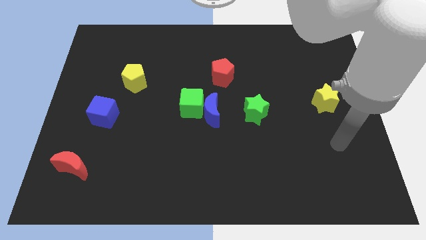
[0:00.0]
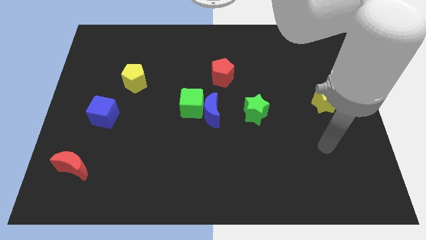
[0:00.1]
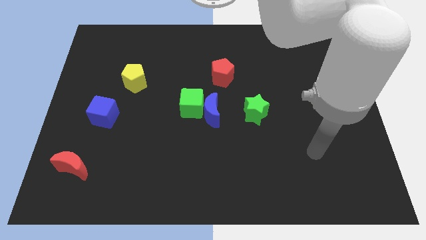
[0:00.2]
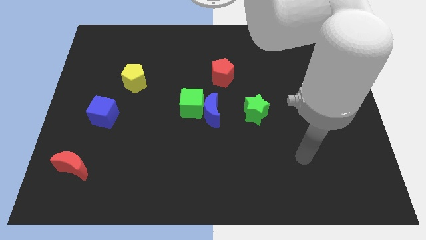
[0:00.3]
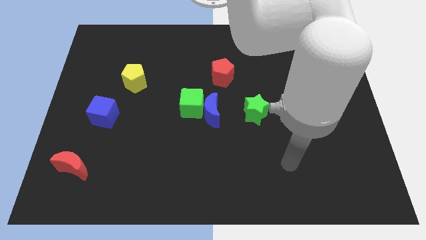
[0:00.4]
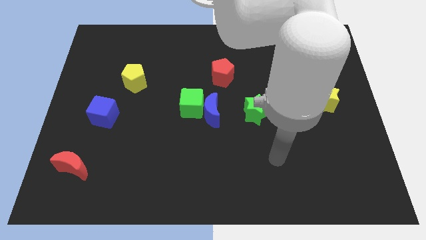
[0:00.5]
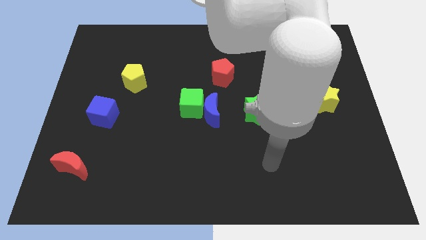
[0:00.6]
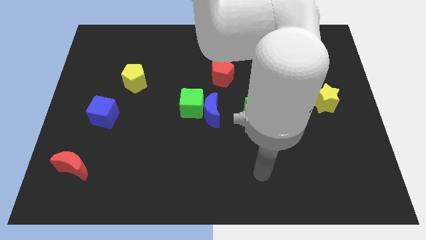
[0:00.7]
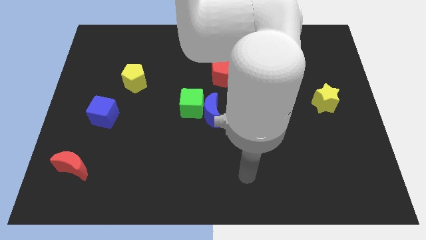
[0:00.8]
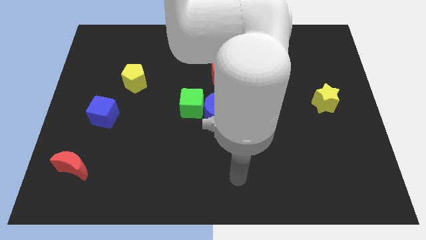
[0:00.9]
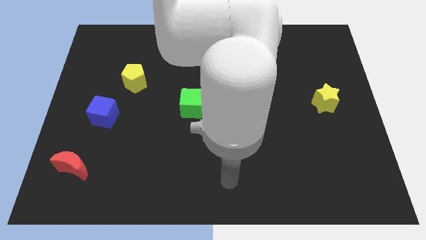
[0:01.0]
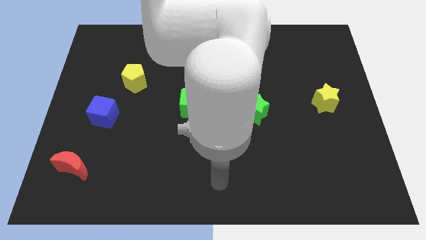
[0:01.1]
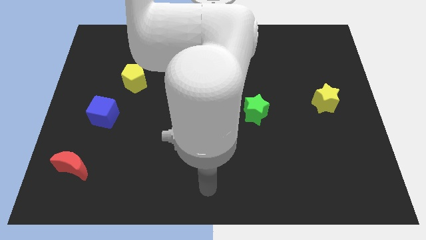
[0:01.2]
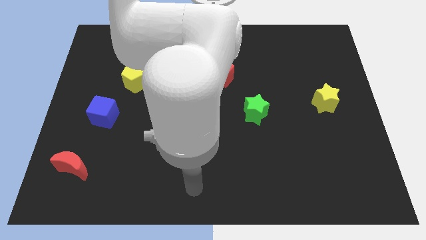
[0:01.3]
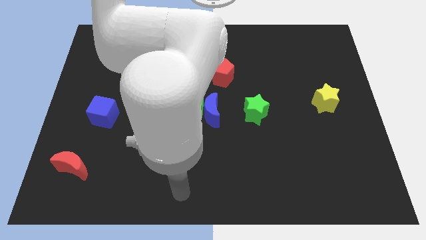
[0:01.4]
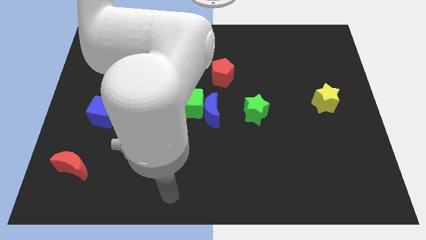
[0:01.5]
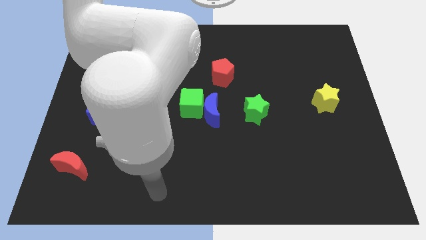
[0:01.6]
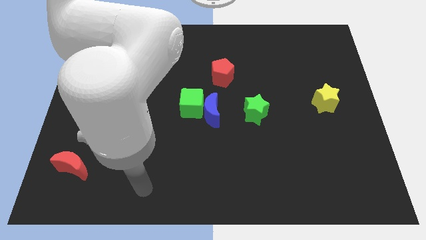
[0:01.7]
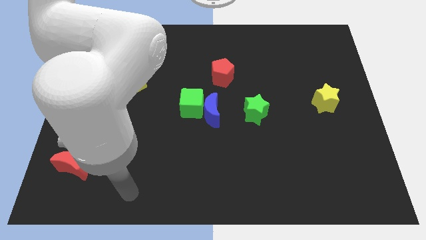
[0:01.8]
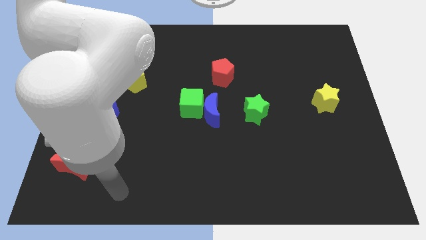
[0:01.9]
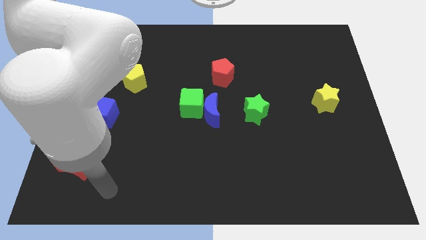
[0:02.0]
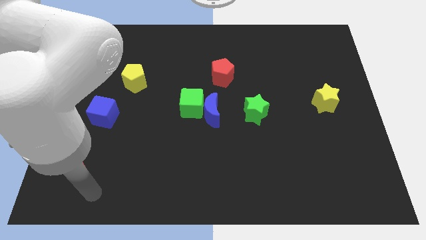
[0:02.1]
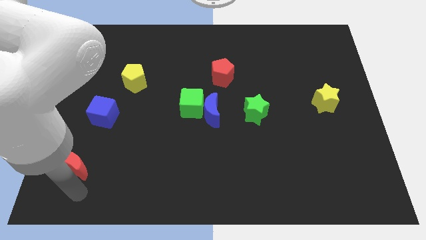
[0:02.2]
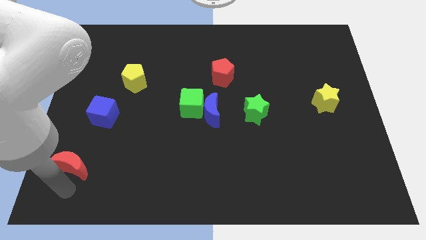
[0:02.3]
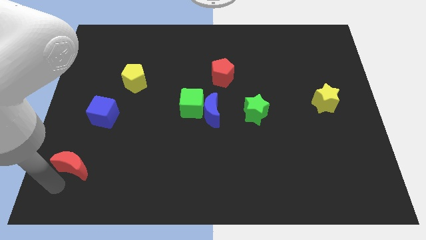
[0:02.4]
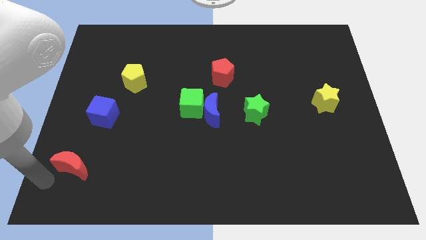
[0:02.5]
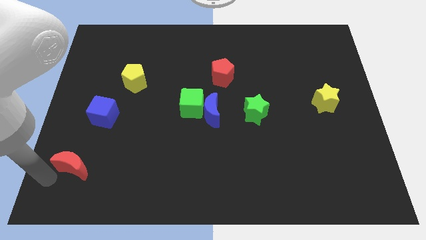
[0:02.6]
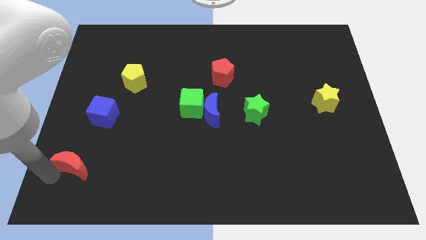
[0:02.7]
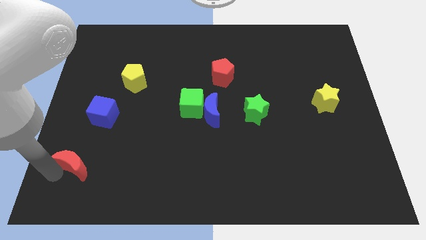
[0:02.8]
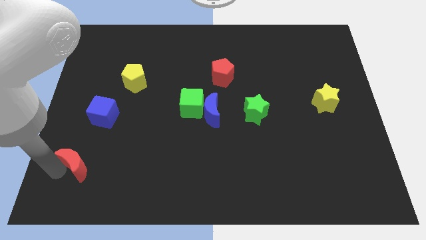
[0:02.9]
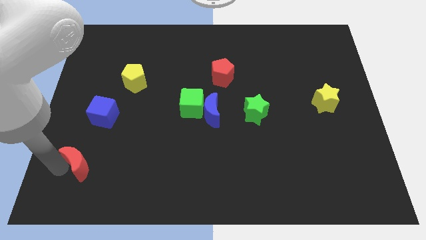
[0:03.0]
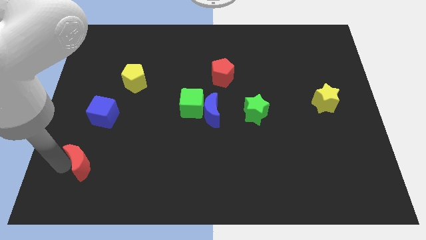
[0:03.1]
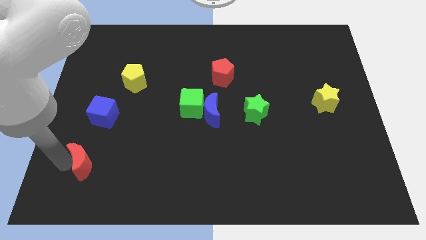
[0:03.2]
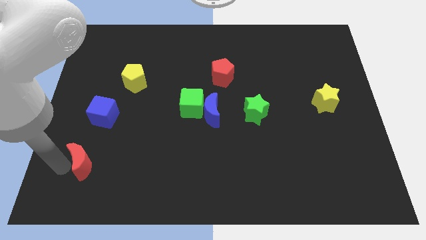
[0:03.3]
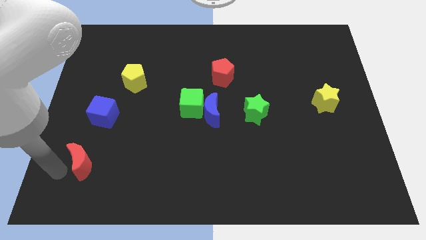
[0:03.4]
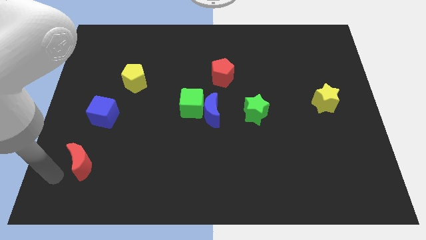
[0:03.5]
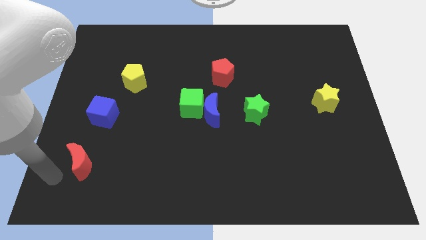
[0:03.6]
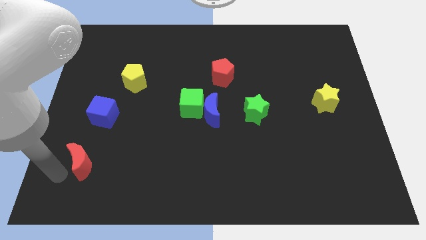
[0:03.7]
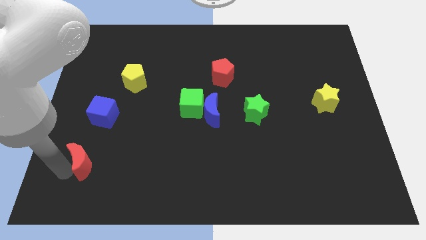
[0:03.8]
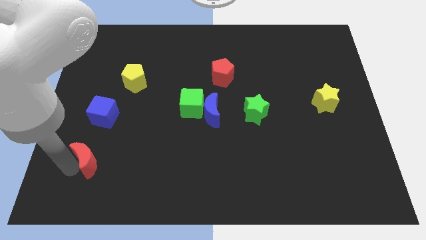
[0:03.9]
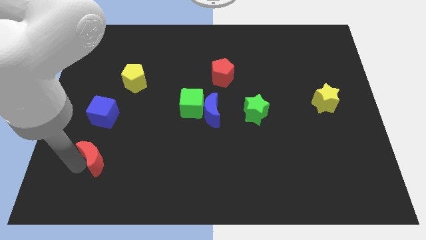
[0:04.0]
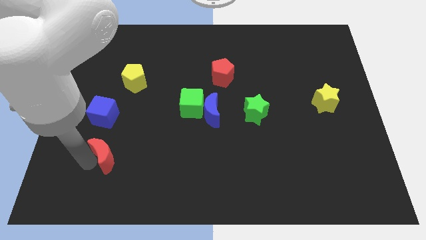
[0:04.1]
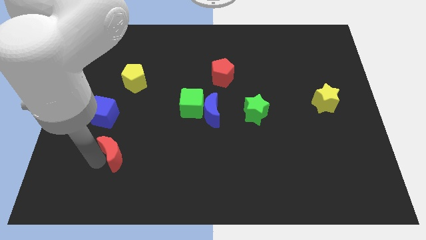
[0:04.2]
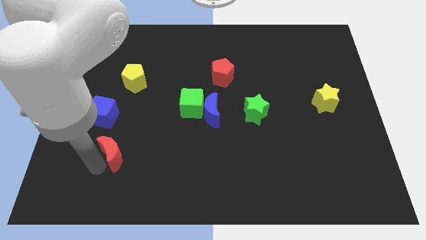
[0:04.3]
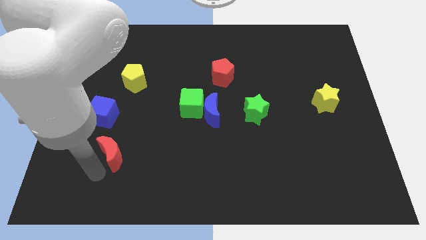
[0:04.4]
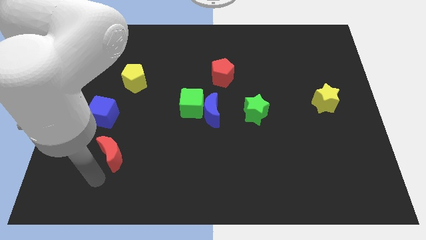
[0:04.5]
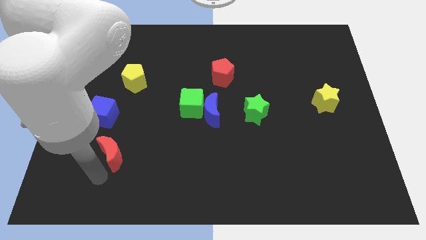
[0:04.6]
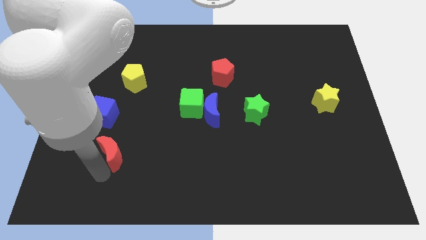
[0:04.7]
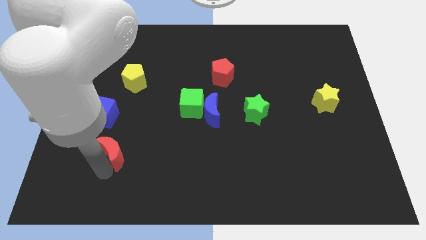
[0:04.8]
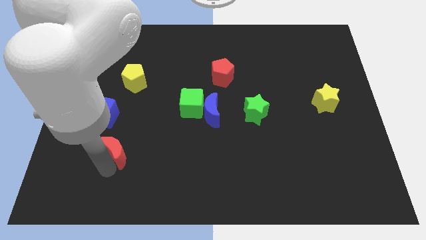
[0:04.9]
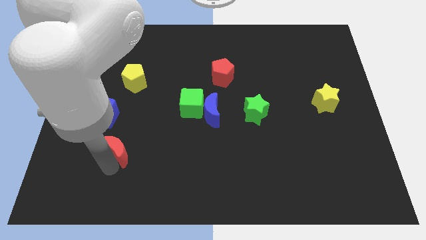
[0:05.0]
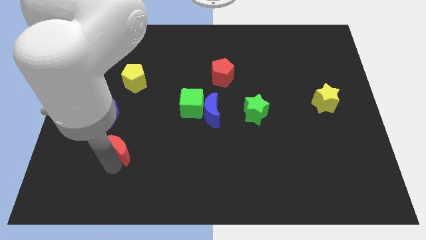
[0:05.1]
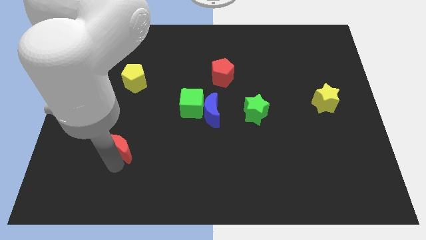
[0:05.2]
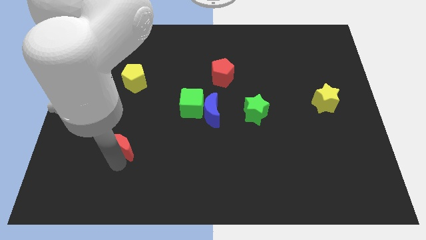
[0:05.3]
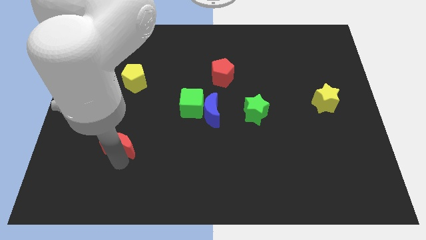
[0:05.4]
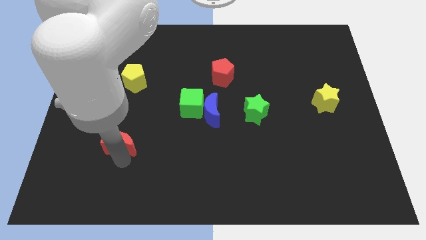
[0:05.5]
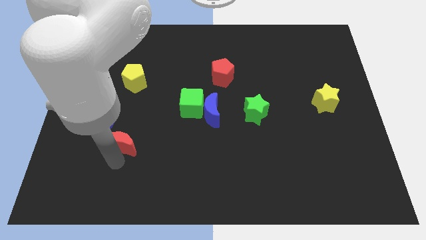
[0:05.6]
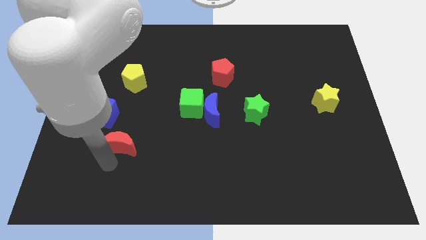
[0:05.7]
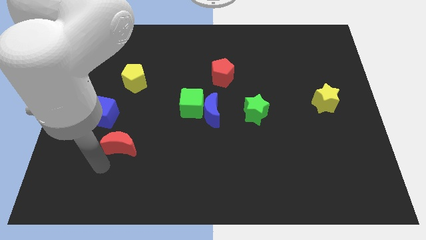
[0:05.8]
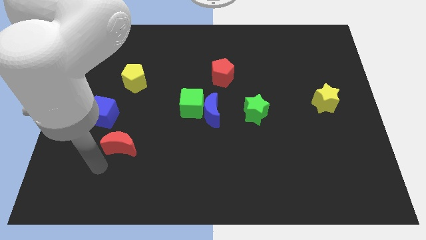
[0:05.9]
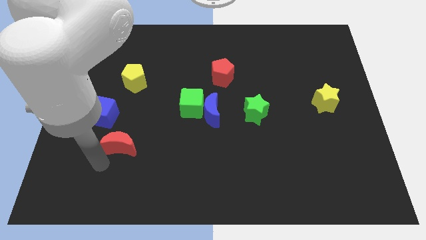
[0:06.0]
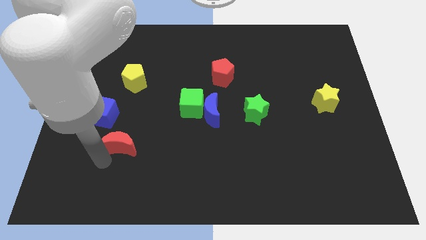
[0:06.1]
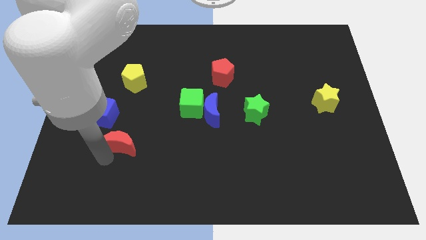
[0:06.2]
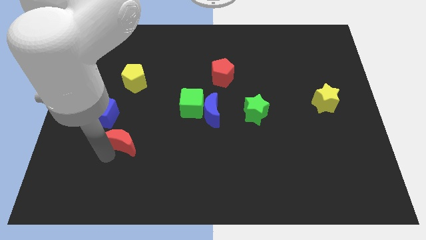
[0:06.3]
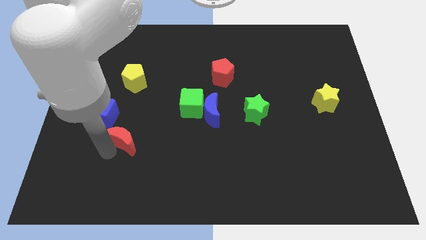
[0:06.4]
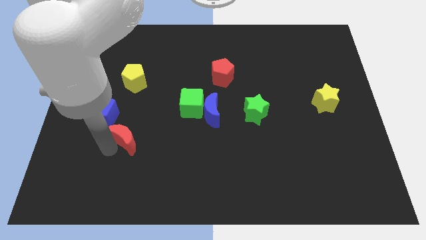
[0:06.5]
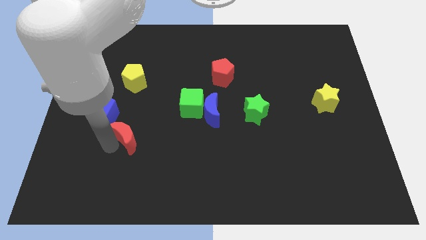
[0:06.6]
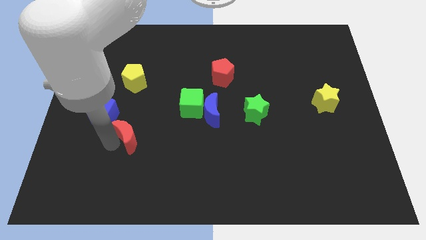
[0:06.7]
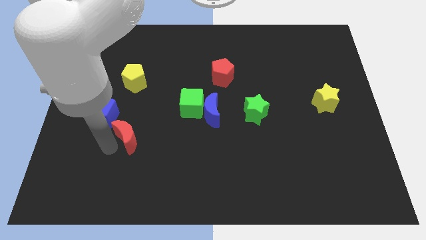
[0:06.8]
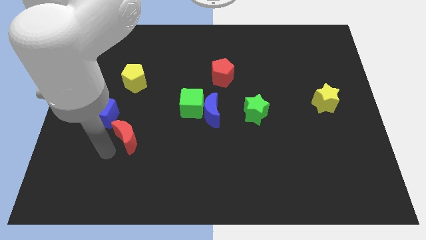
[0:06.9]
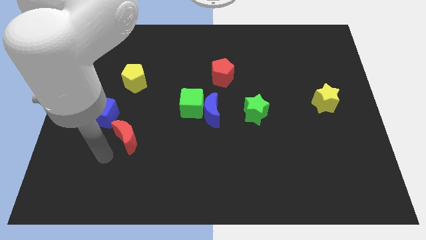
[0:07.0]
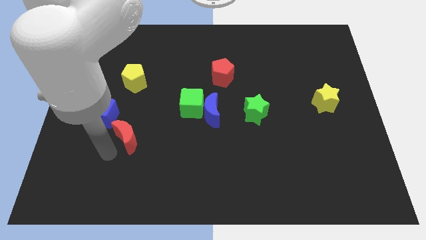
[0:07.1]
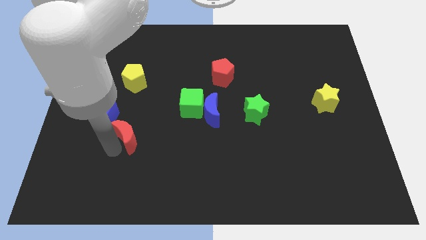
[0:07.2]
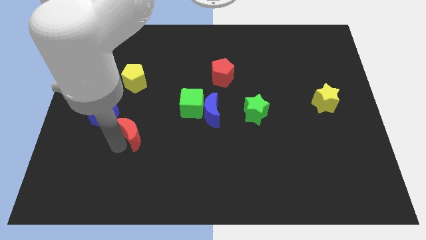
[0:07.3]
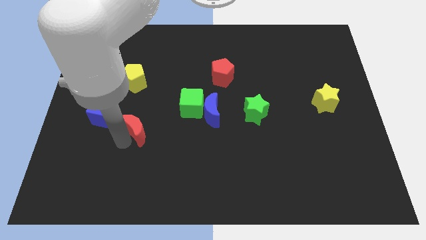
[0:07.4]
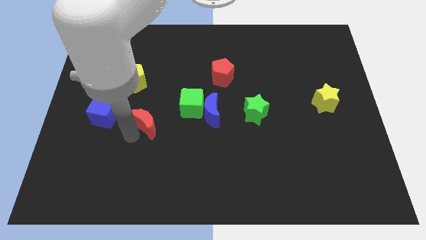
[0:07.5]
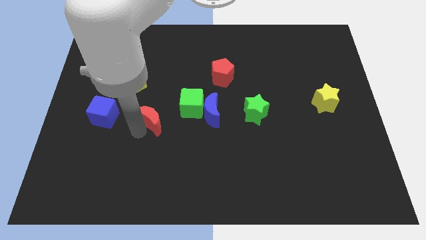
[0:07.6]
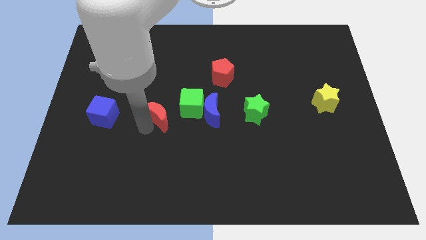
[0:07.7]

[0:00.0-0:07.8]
slide the red moon diagonally upwards and to the right

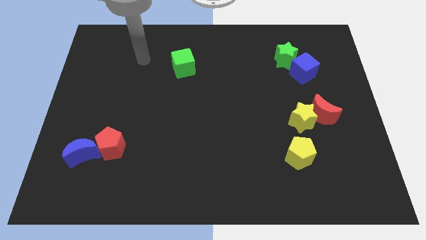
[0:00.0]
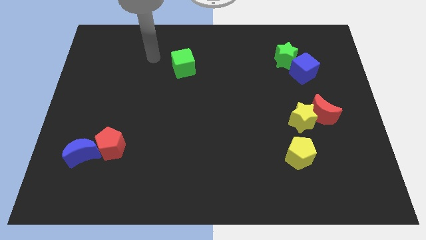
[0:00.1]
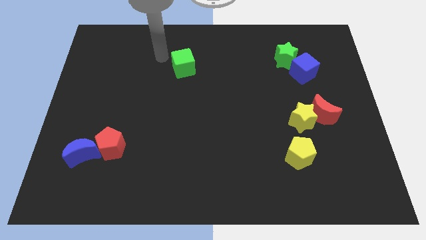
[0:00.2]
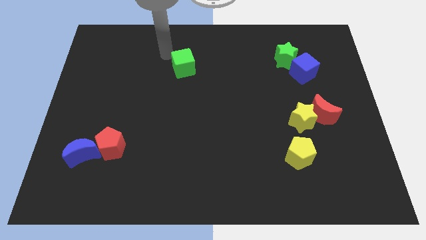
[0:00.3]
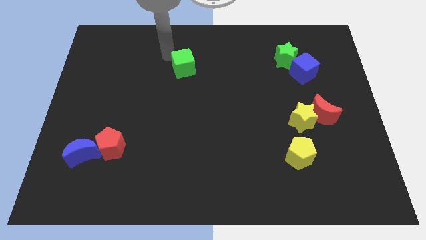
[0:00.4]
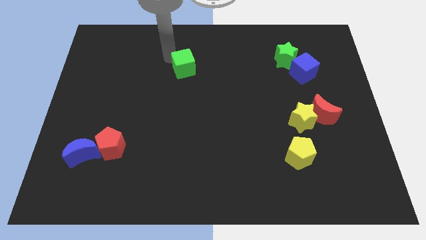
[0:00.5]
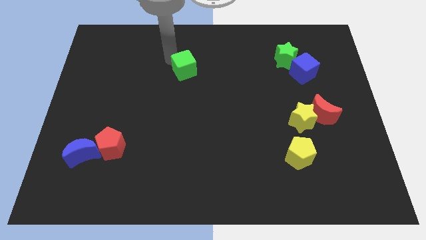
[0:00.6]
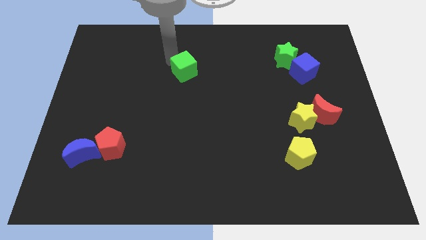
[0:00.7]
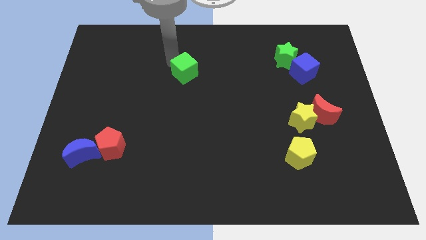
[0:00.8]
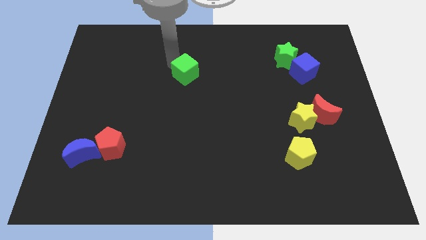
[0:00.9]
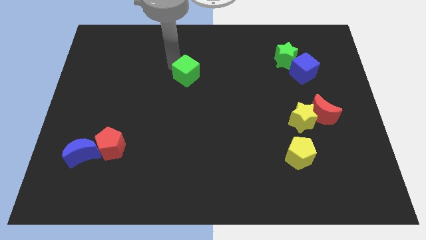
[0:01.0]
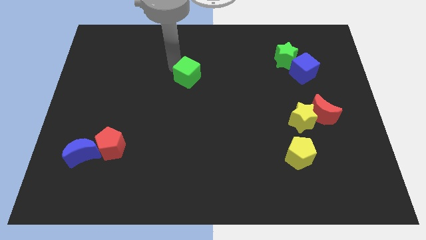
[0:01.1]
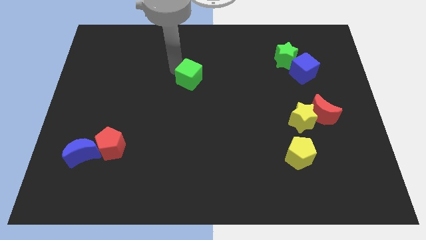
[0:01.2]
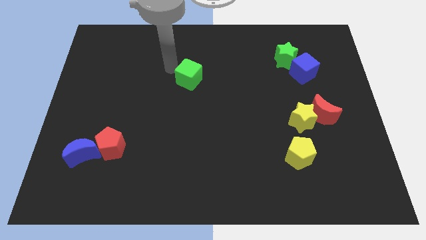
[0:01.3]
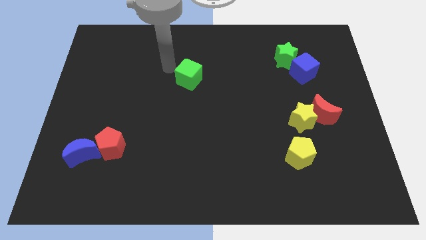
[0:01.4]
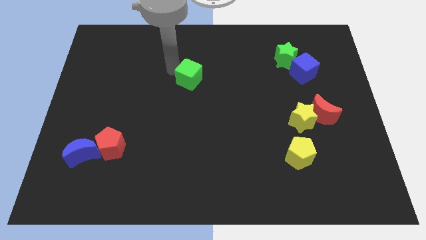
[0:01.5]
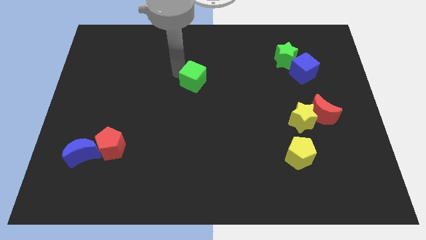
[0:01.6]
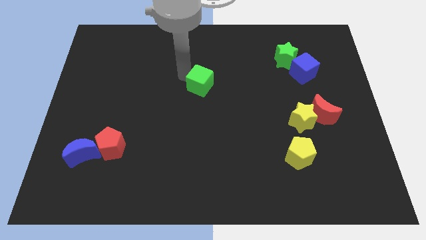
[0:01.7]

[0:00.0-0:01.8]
slightly slide the green cube down and then right
